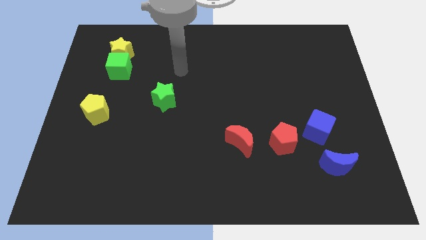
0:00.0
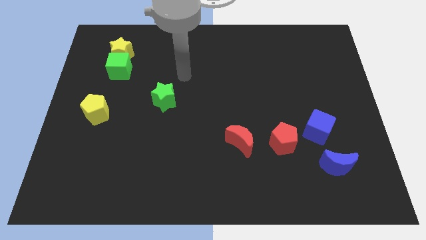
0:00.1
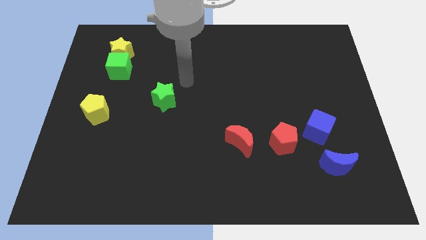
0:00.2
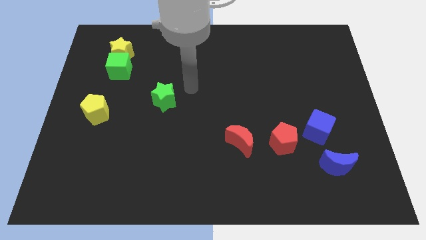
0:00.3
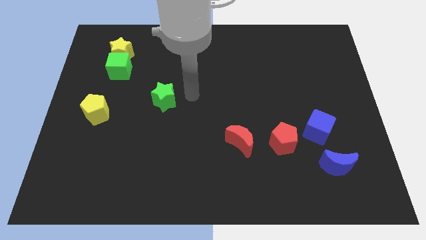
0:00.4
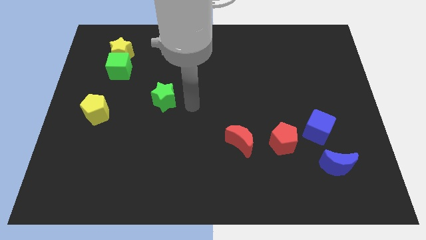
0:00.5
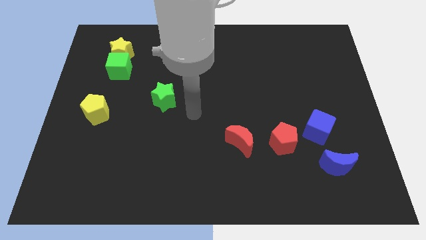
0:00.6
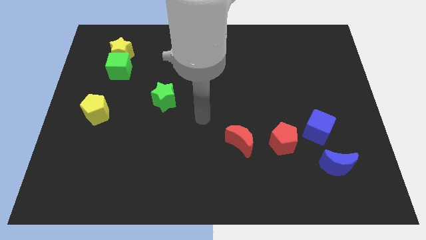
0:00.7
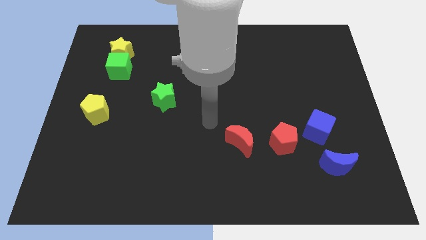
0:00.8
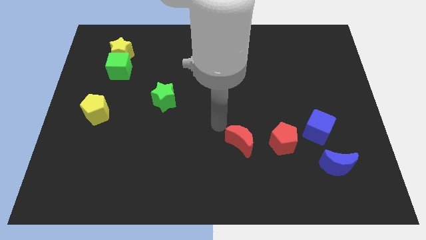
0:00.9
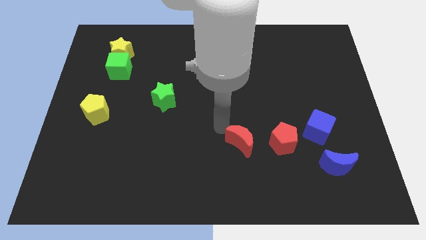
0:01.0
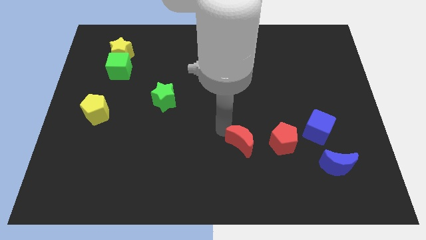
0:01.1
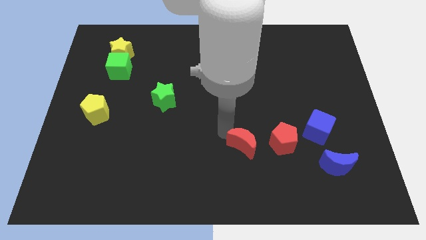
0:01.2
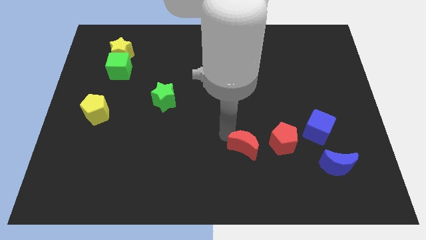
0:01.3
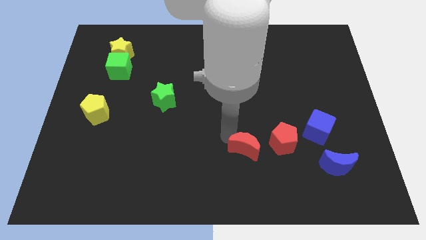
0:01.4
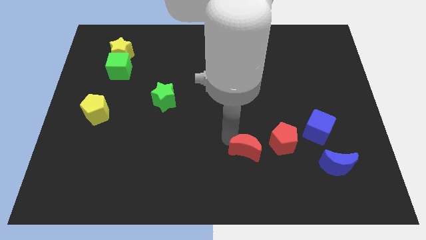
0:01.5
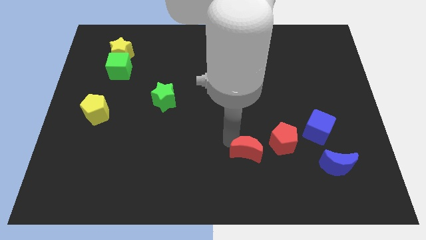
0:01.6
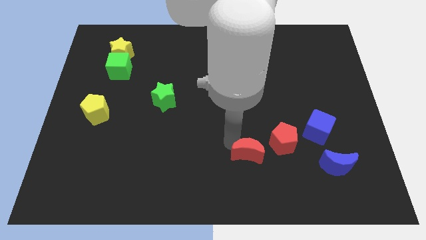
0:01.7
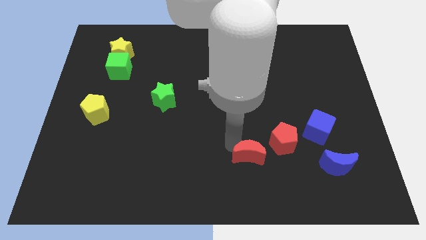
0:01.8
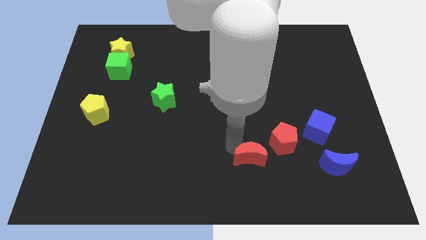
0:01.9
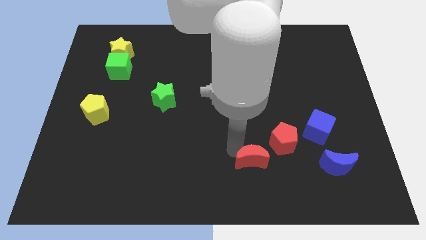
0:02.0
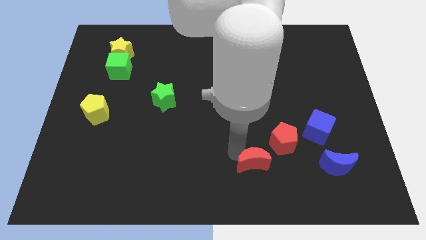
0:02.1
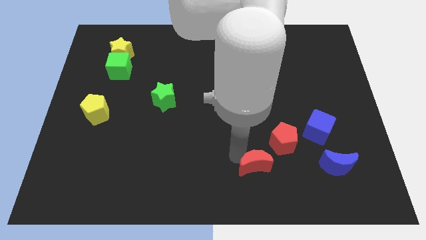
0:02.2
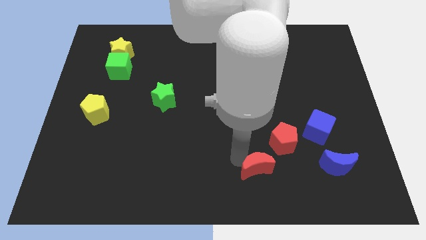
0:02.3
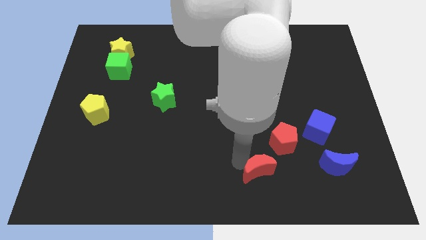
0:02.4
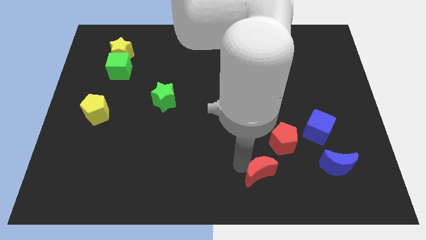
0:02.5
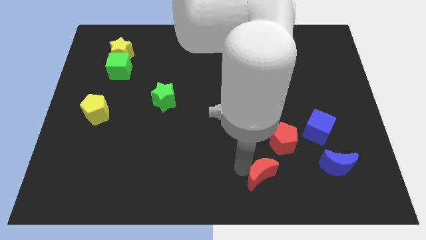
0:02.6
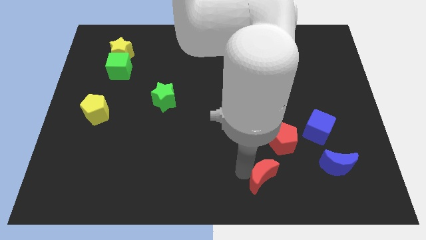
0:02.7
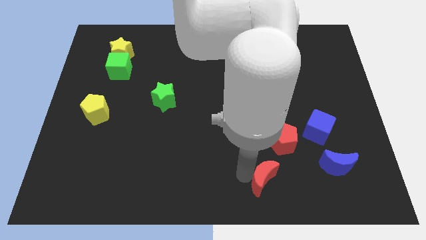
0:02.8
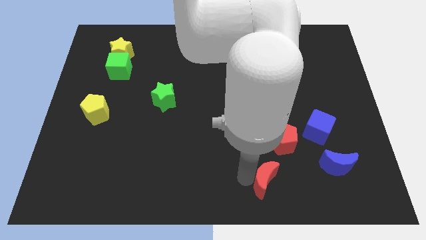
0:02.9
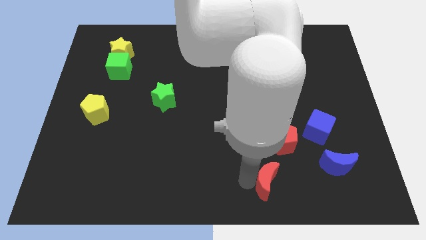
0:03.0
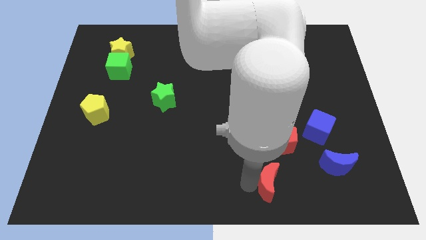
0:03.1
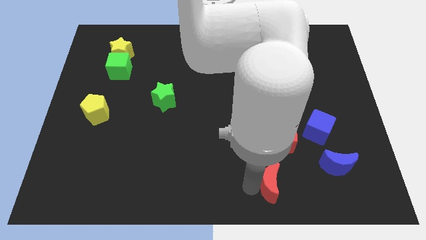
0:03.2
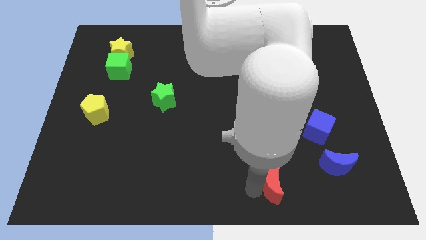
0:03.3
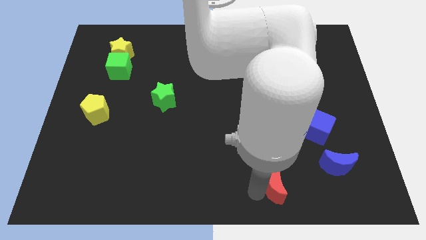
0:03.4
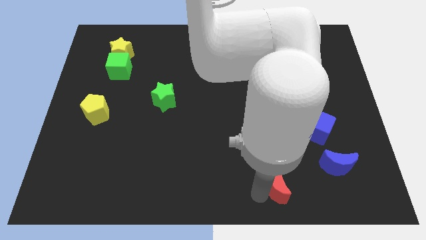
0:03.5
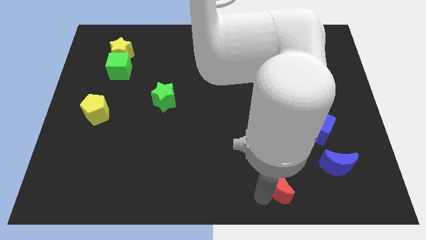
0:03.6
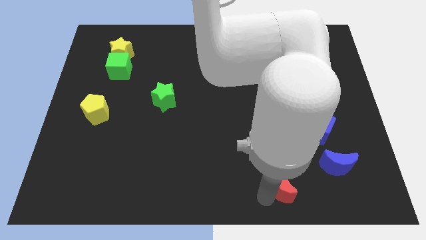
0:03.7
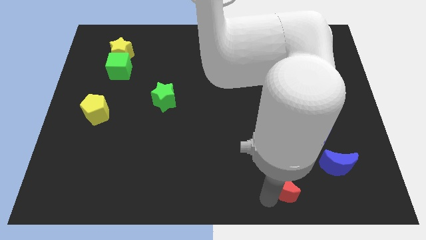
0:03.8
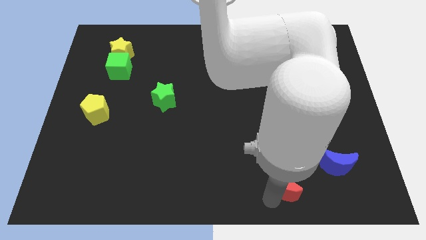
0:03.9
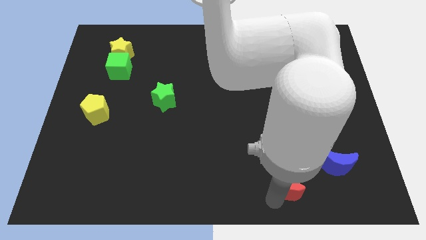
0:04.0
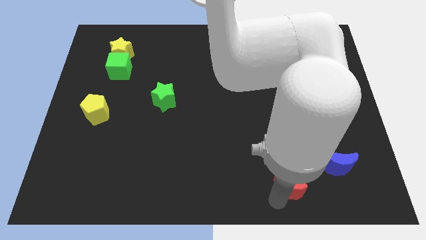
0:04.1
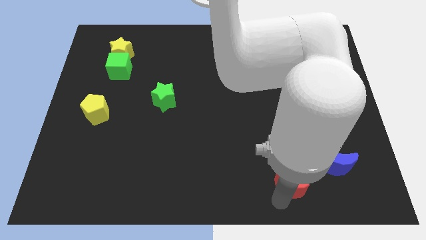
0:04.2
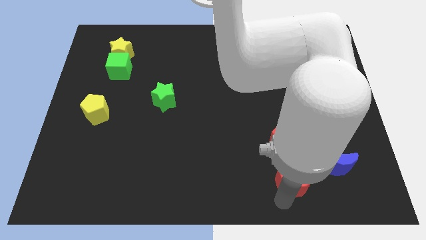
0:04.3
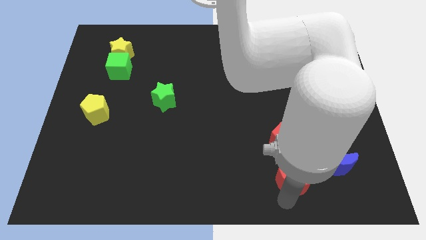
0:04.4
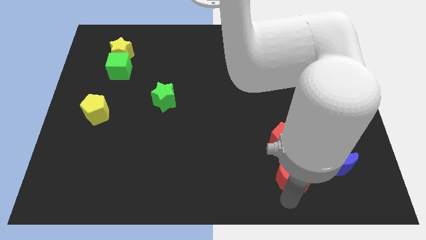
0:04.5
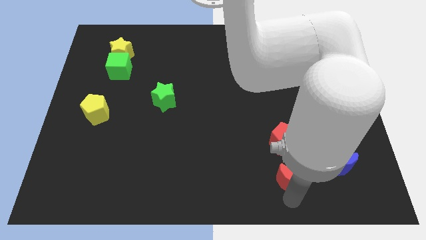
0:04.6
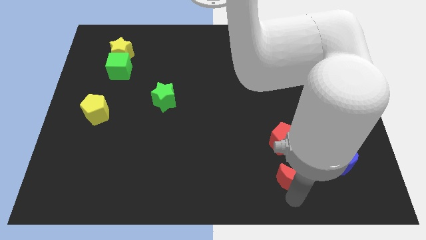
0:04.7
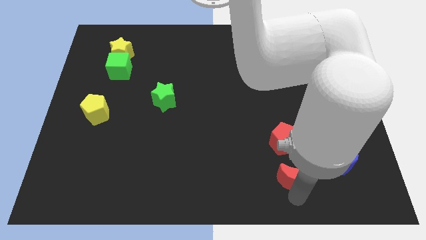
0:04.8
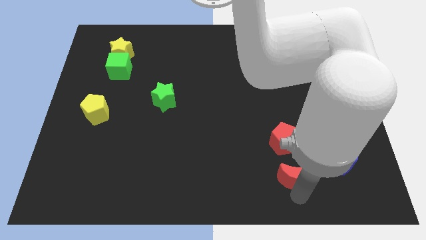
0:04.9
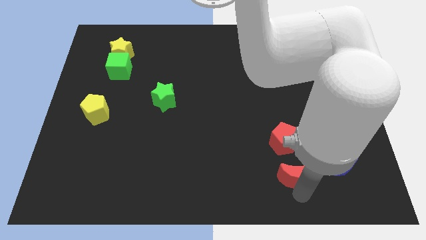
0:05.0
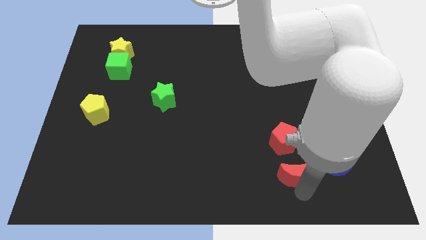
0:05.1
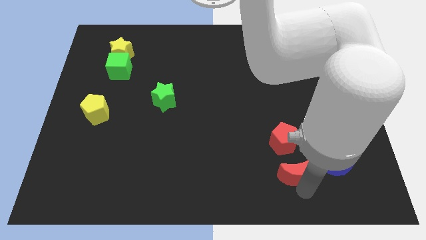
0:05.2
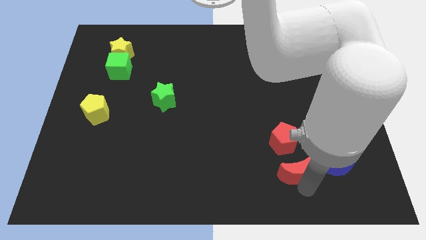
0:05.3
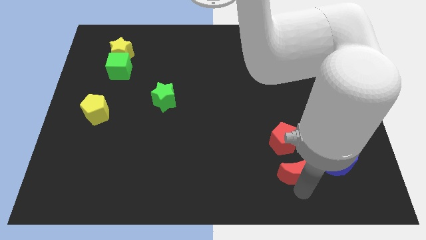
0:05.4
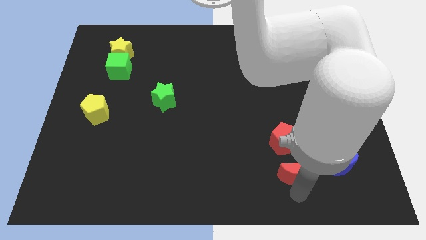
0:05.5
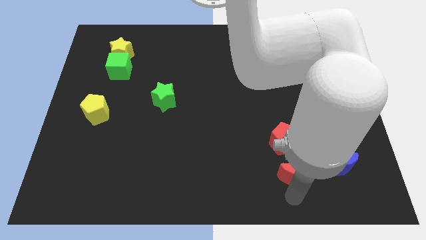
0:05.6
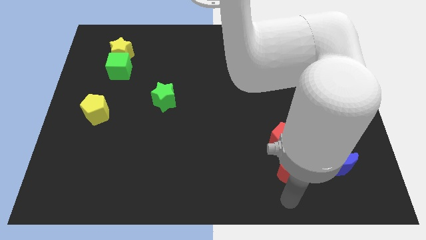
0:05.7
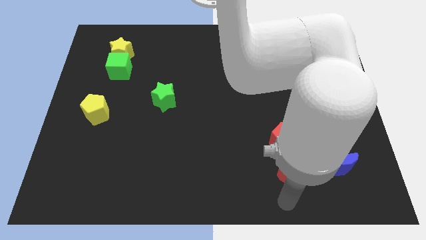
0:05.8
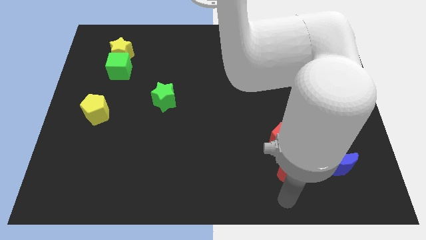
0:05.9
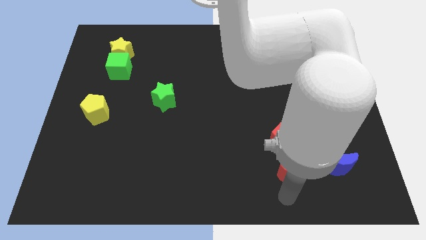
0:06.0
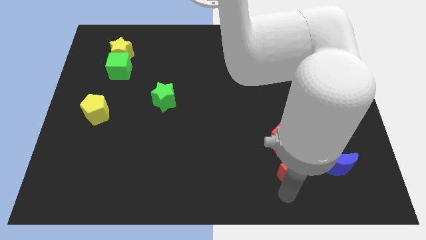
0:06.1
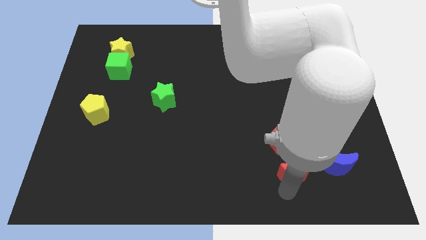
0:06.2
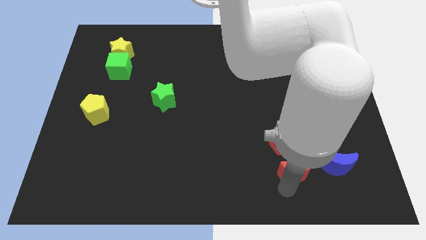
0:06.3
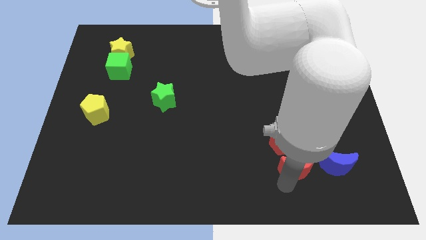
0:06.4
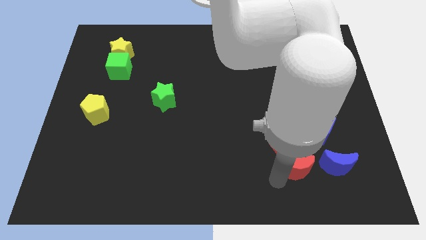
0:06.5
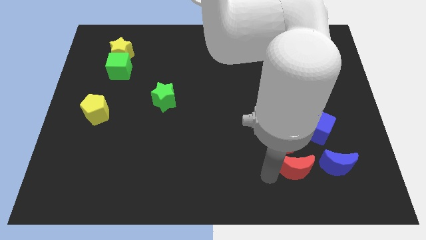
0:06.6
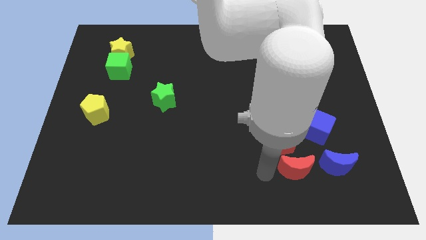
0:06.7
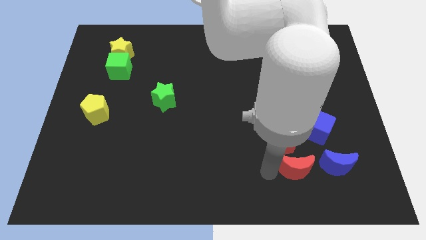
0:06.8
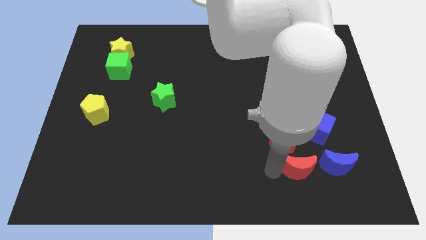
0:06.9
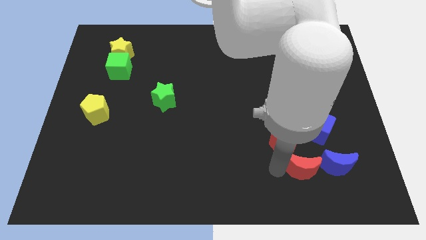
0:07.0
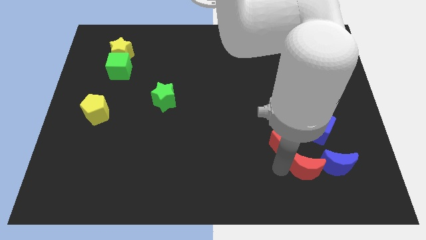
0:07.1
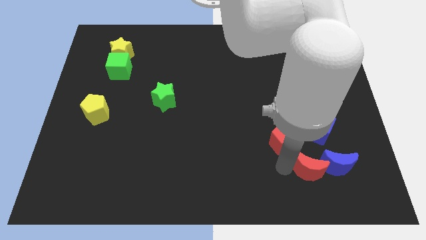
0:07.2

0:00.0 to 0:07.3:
slide the red moon towards the blue moon

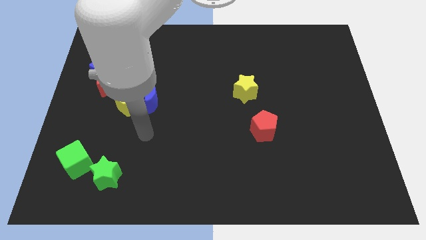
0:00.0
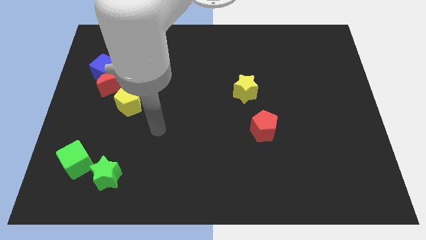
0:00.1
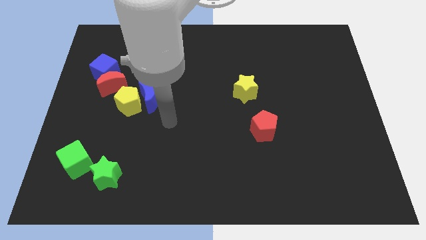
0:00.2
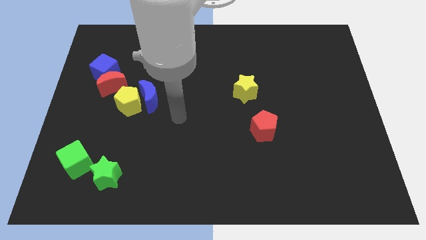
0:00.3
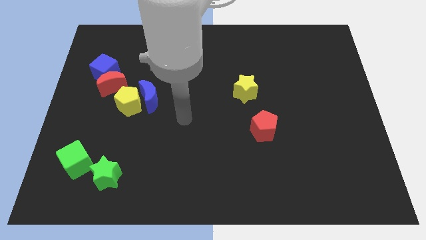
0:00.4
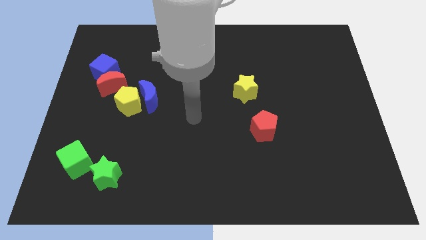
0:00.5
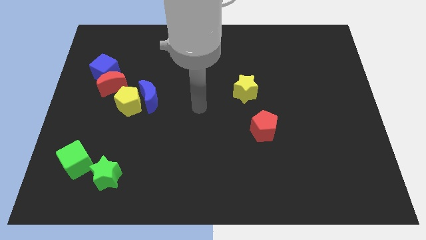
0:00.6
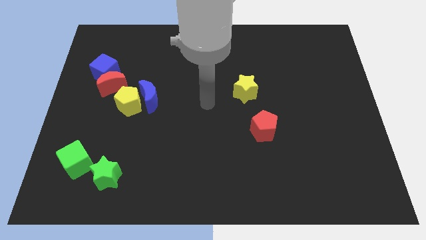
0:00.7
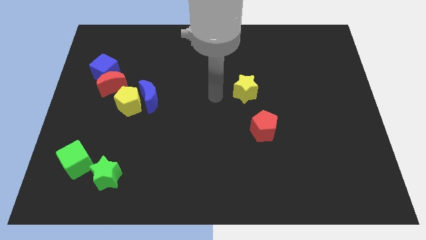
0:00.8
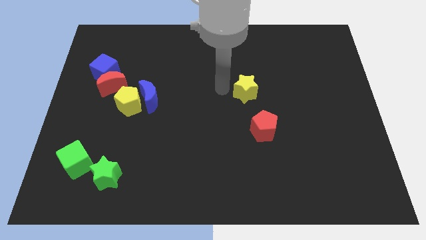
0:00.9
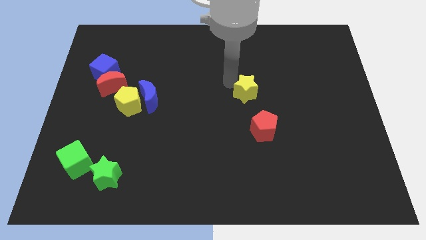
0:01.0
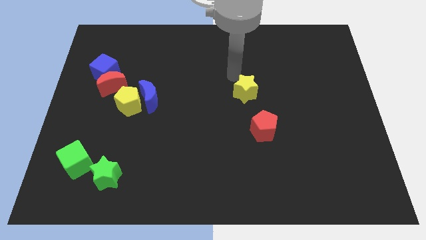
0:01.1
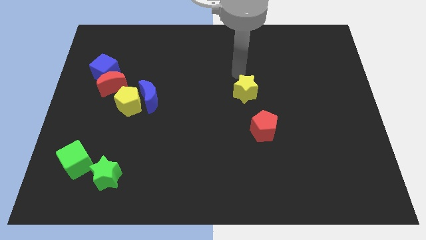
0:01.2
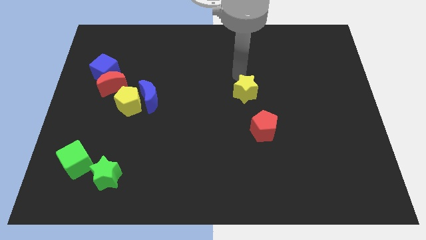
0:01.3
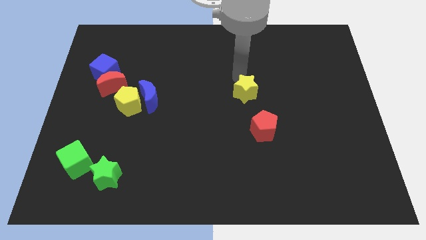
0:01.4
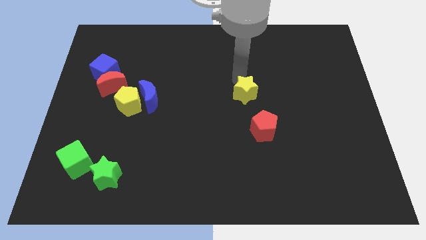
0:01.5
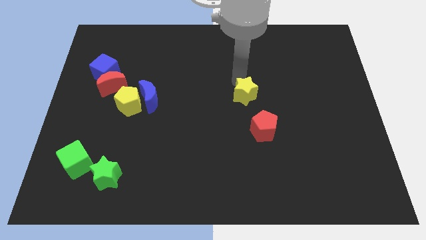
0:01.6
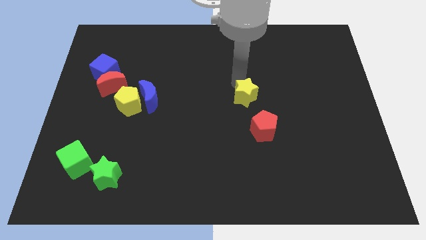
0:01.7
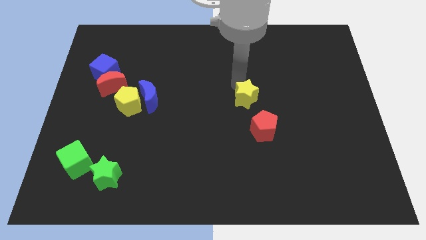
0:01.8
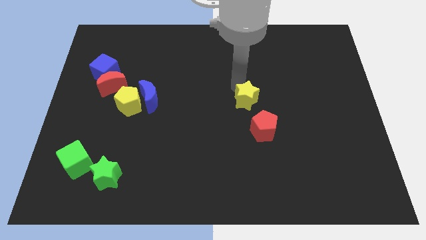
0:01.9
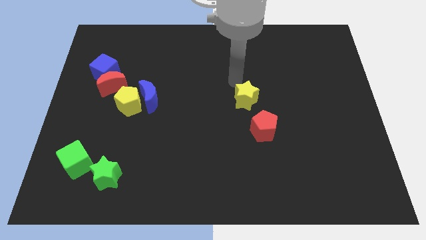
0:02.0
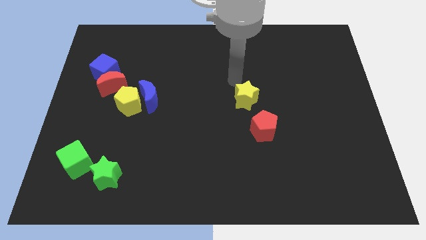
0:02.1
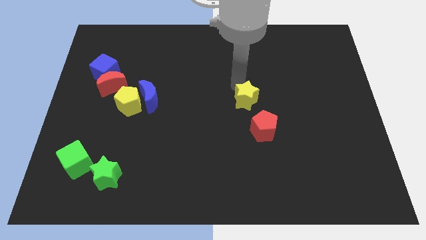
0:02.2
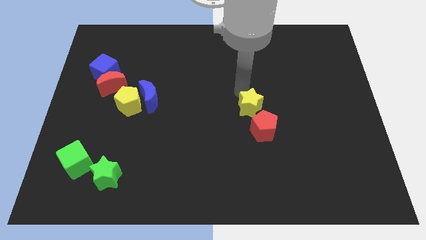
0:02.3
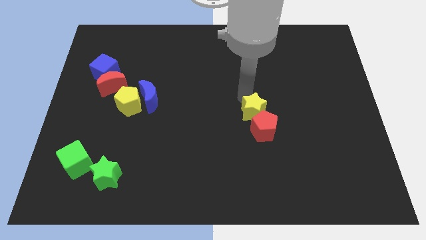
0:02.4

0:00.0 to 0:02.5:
put the yellow star towards the red pentagon
